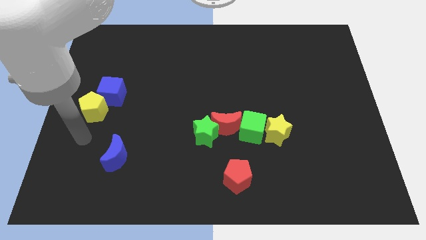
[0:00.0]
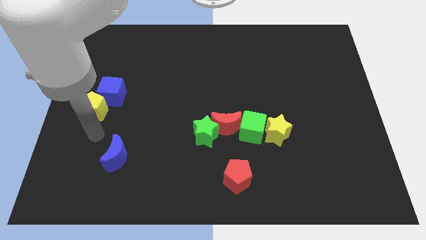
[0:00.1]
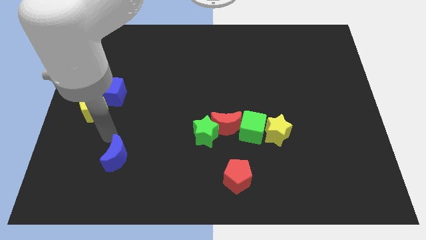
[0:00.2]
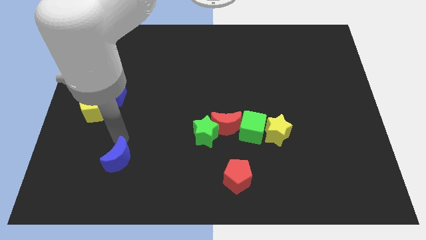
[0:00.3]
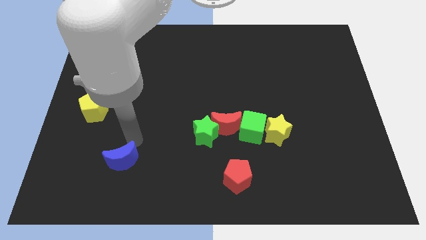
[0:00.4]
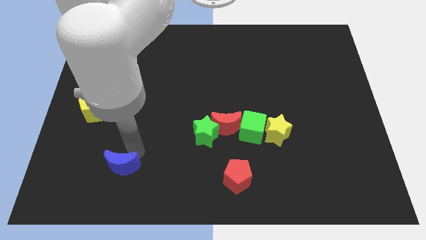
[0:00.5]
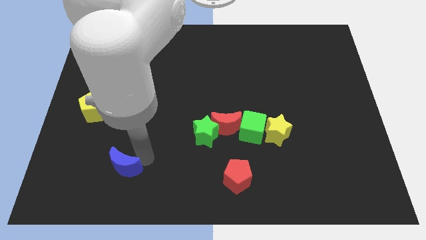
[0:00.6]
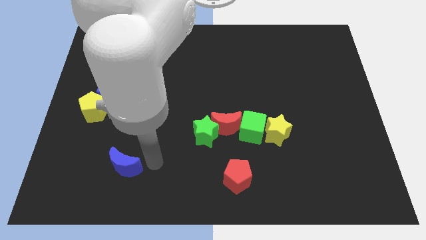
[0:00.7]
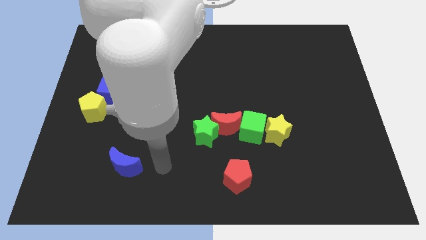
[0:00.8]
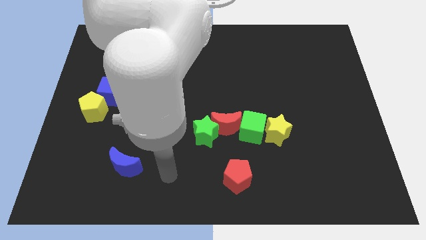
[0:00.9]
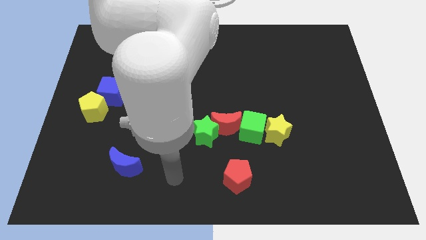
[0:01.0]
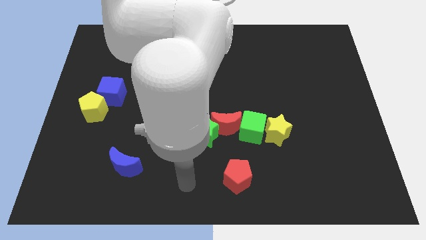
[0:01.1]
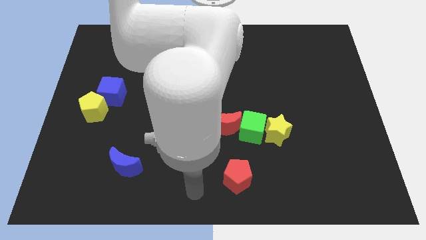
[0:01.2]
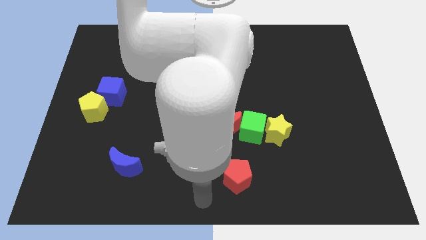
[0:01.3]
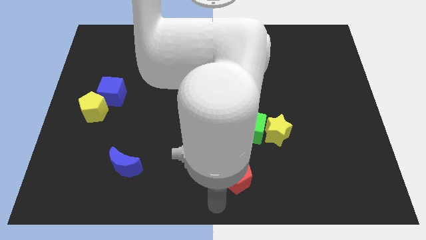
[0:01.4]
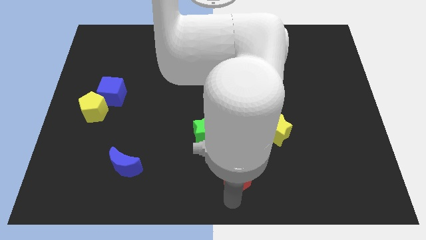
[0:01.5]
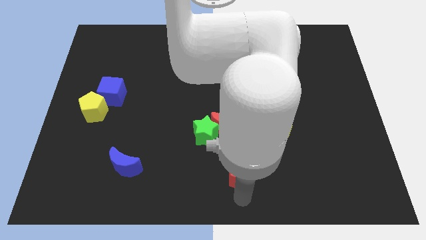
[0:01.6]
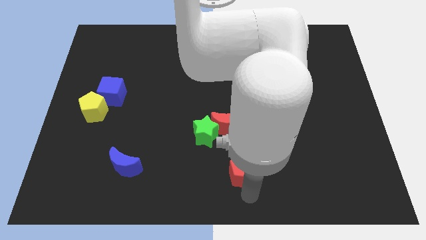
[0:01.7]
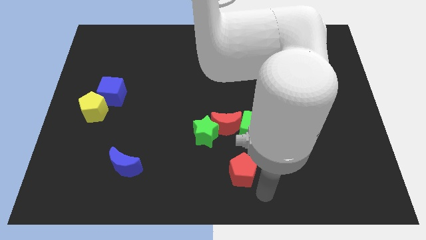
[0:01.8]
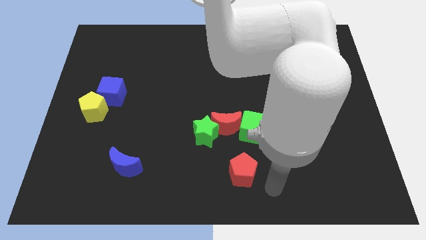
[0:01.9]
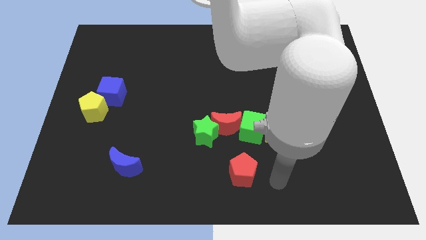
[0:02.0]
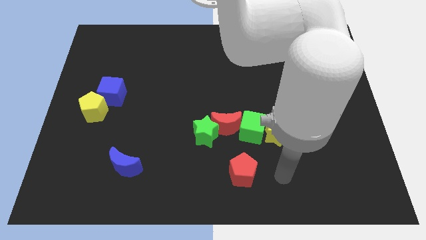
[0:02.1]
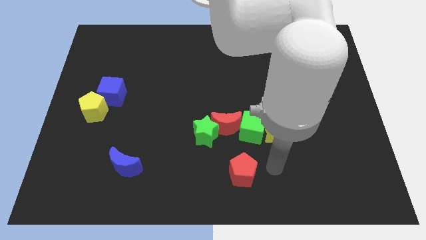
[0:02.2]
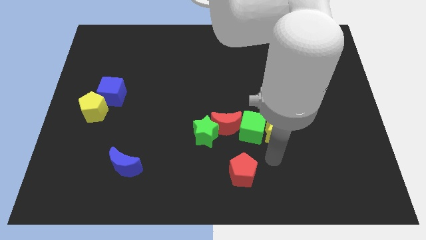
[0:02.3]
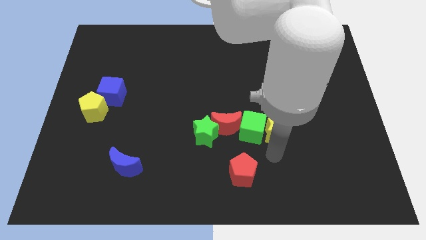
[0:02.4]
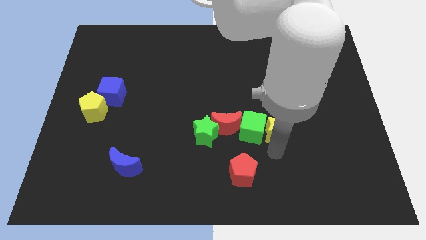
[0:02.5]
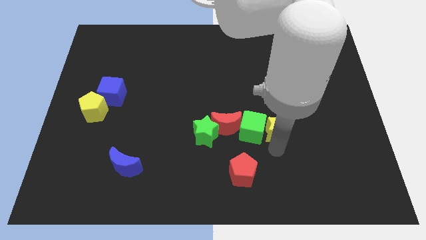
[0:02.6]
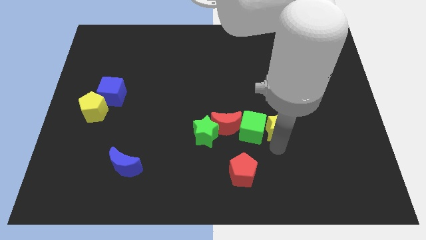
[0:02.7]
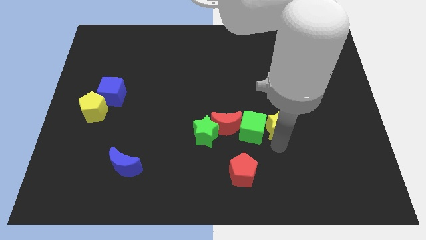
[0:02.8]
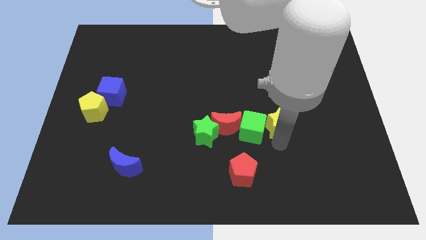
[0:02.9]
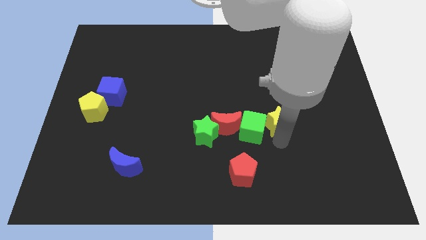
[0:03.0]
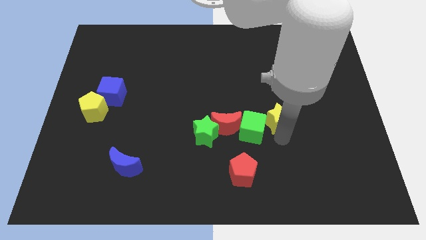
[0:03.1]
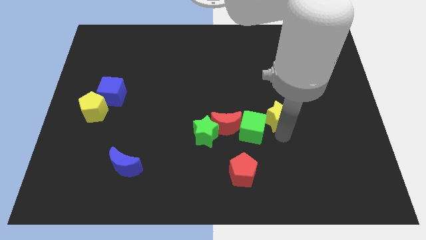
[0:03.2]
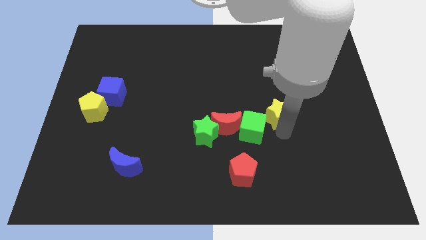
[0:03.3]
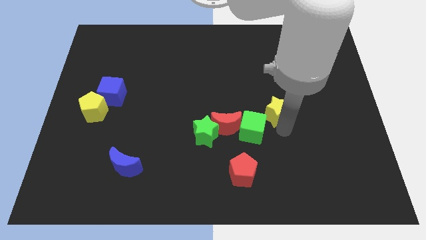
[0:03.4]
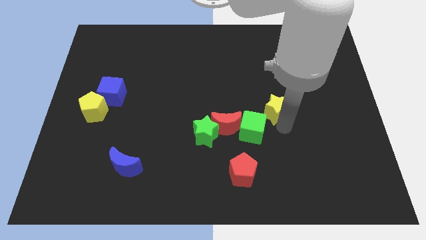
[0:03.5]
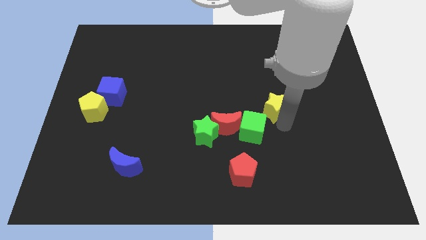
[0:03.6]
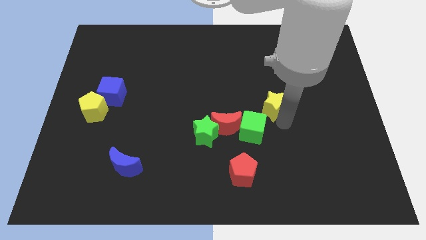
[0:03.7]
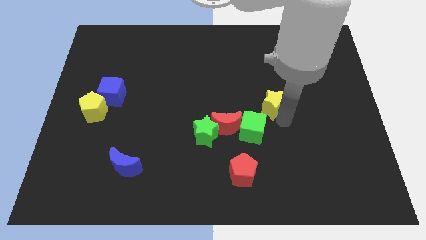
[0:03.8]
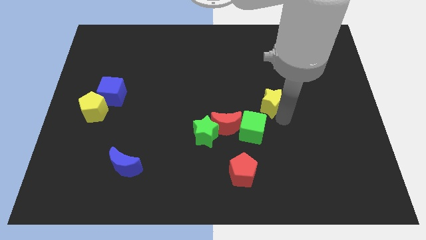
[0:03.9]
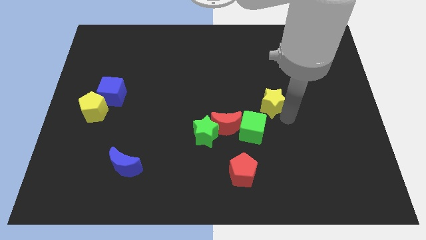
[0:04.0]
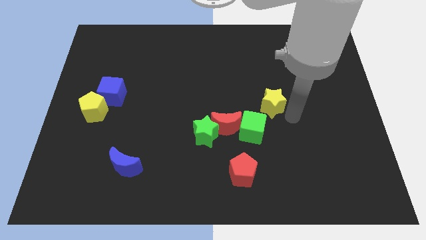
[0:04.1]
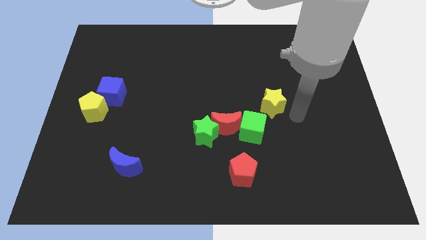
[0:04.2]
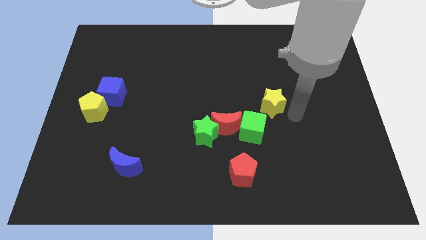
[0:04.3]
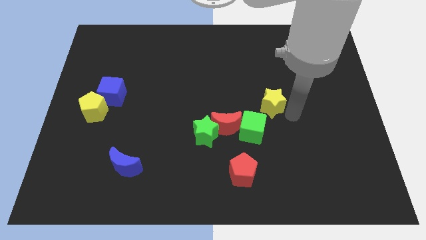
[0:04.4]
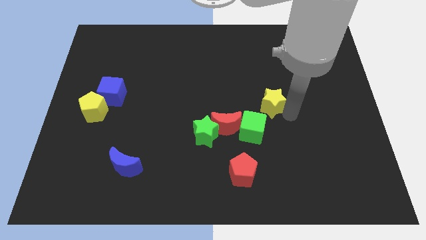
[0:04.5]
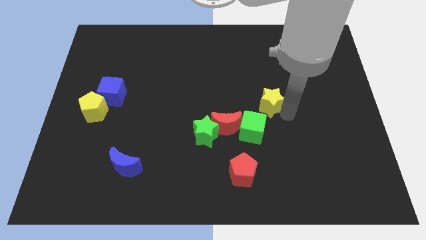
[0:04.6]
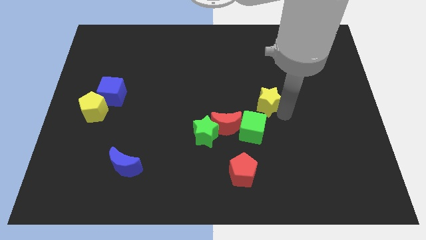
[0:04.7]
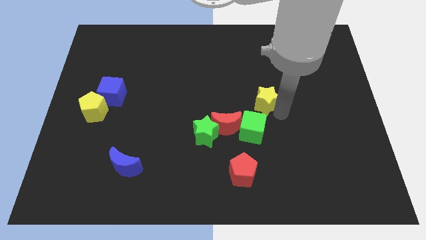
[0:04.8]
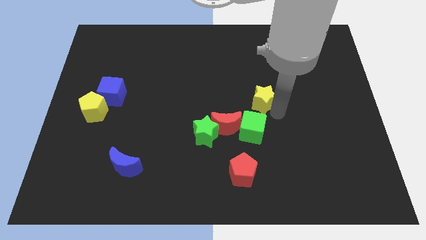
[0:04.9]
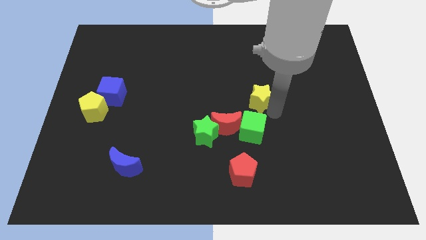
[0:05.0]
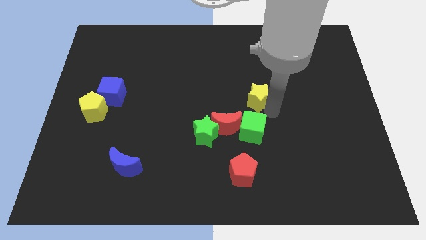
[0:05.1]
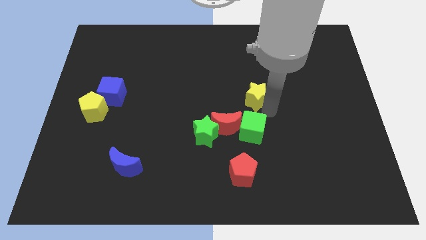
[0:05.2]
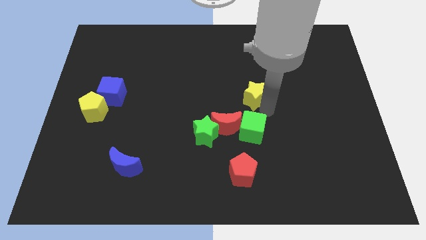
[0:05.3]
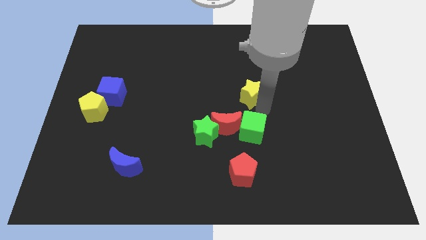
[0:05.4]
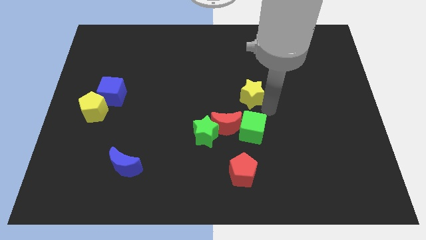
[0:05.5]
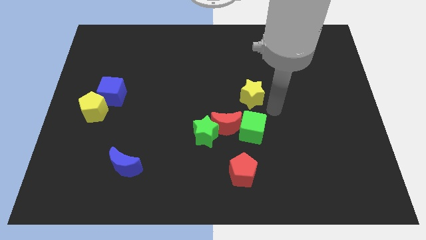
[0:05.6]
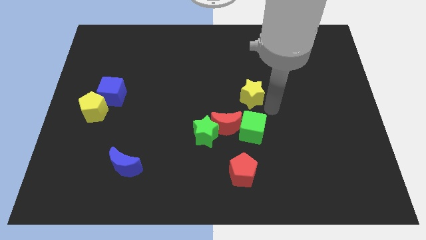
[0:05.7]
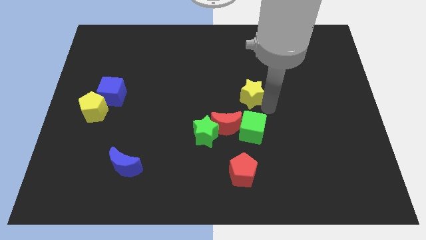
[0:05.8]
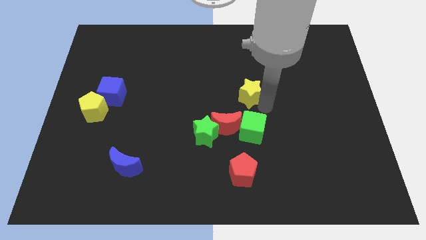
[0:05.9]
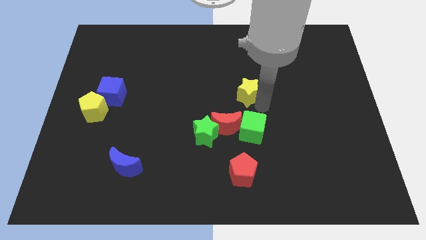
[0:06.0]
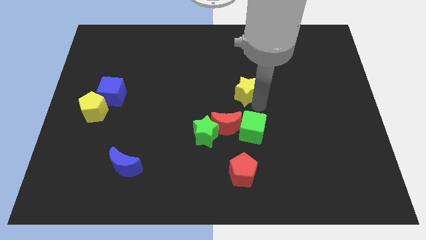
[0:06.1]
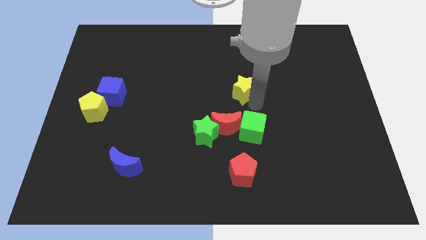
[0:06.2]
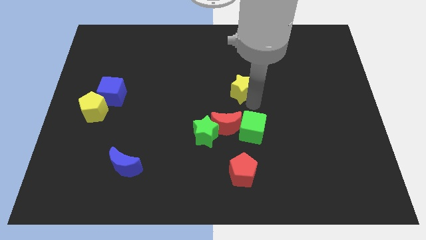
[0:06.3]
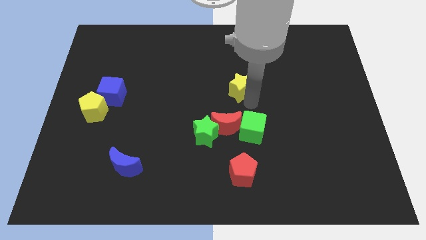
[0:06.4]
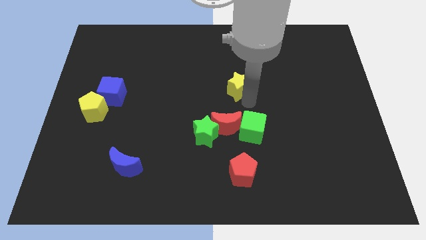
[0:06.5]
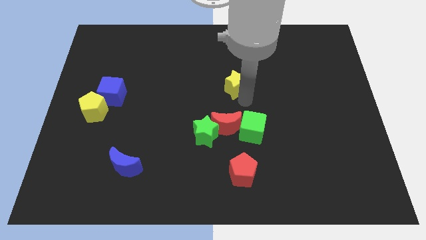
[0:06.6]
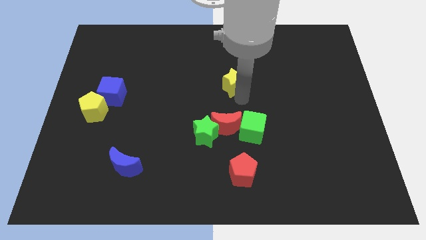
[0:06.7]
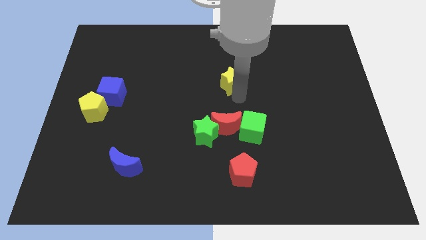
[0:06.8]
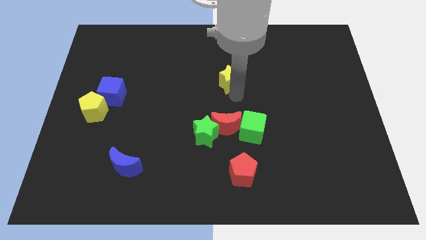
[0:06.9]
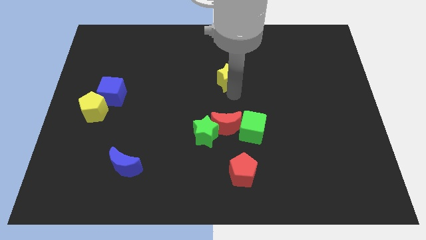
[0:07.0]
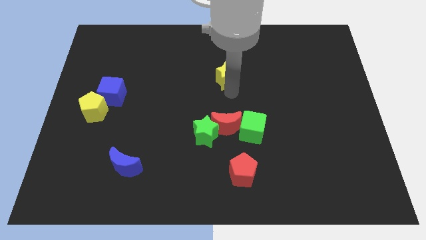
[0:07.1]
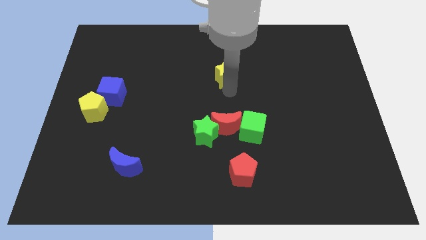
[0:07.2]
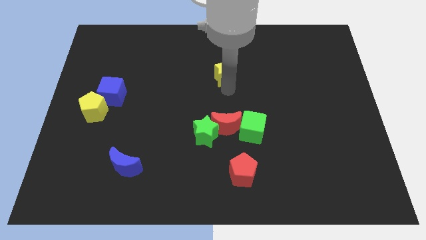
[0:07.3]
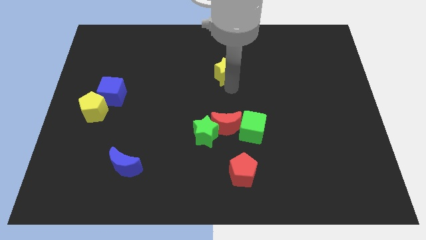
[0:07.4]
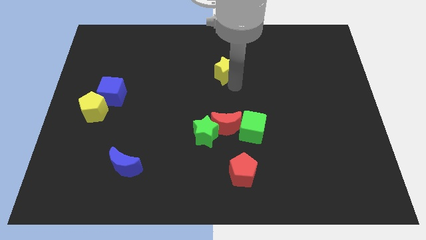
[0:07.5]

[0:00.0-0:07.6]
slide the yellow star upwards and then left

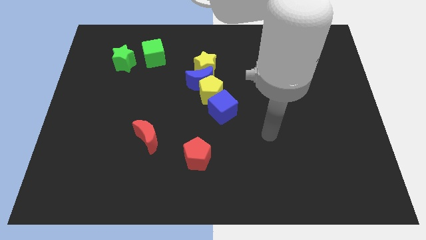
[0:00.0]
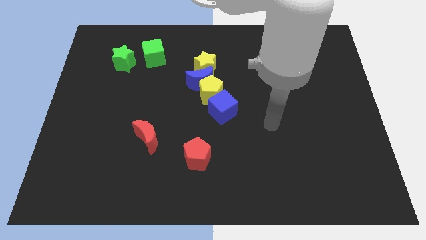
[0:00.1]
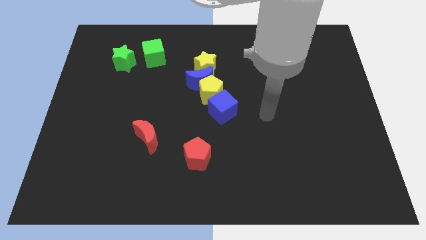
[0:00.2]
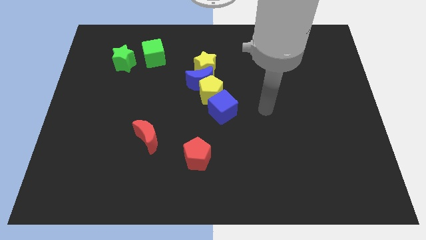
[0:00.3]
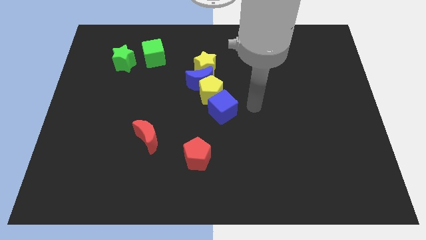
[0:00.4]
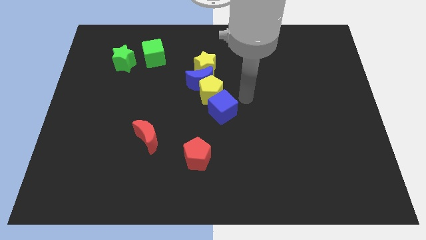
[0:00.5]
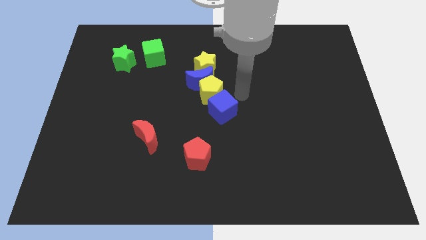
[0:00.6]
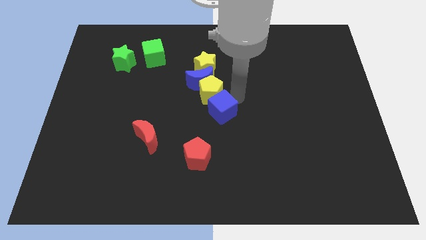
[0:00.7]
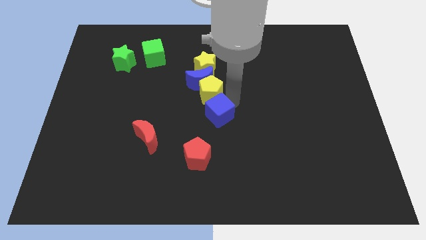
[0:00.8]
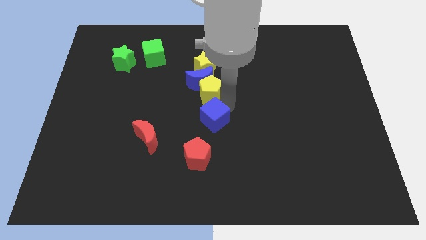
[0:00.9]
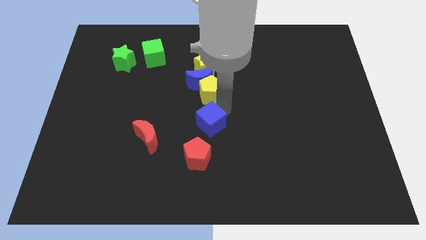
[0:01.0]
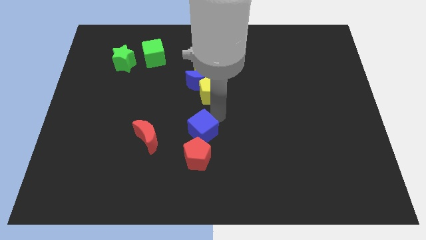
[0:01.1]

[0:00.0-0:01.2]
move the blue cube slightly diagonally downwards and left
